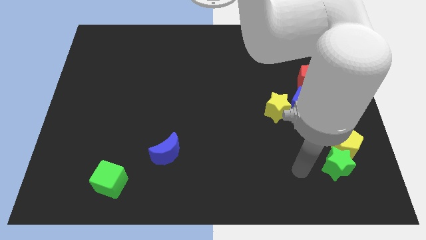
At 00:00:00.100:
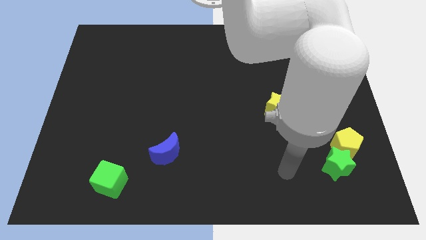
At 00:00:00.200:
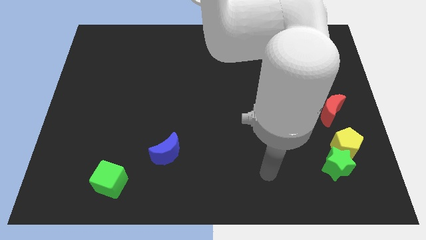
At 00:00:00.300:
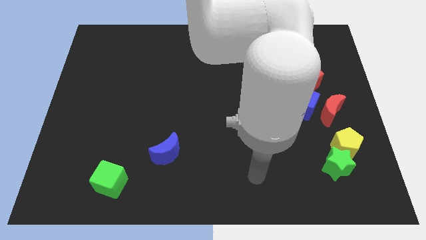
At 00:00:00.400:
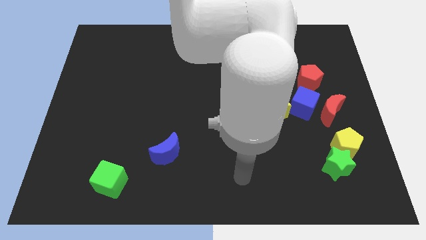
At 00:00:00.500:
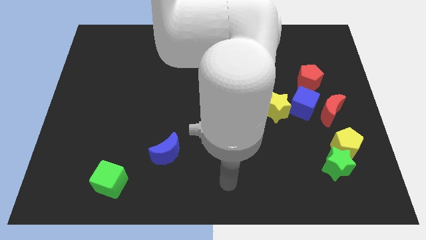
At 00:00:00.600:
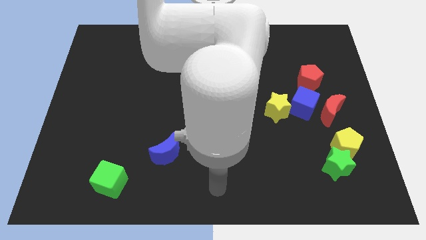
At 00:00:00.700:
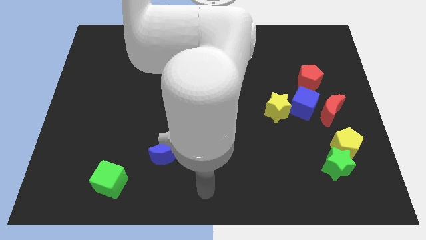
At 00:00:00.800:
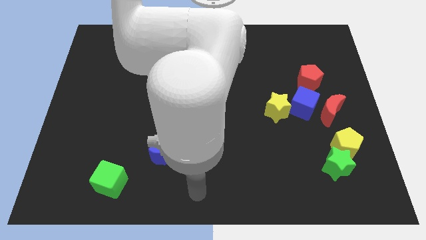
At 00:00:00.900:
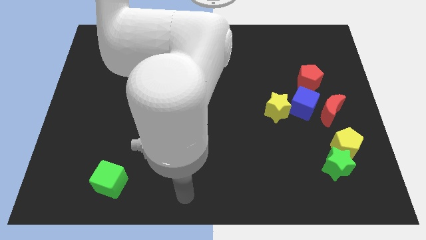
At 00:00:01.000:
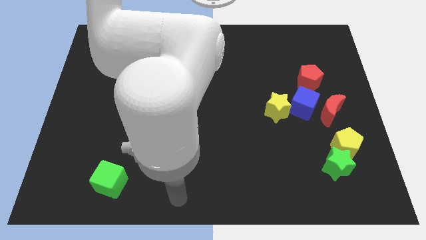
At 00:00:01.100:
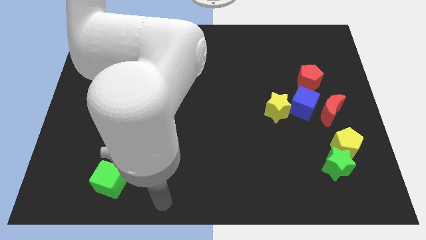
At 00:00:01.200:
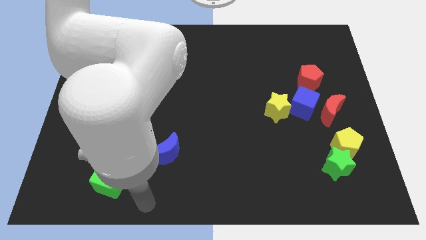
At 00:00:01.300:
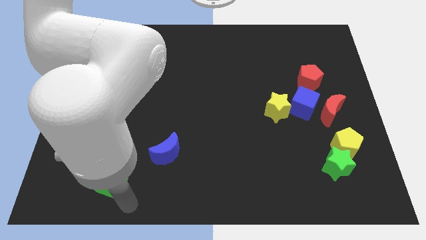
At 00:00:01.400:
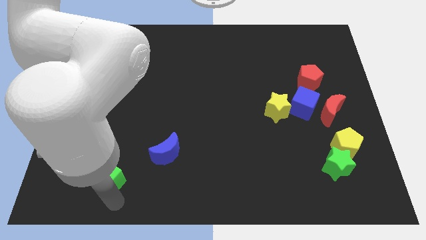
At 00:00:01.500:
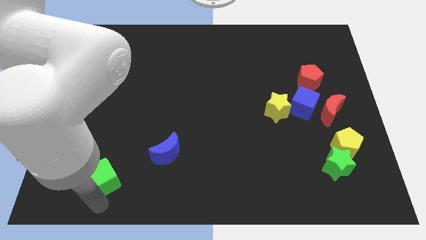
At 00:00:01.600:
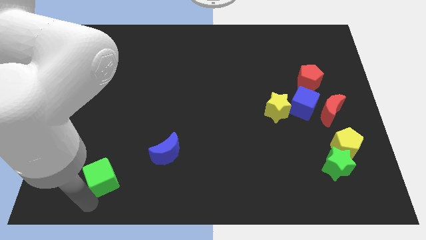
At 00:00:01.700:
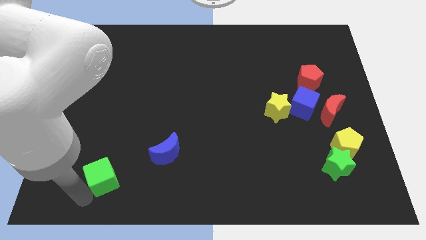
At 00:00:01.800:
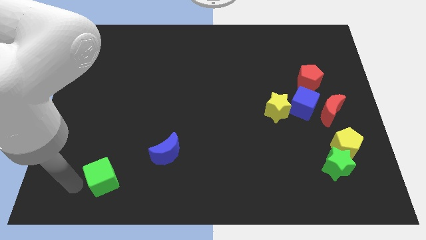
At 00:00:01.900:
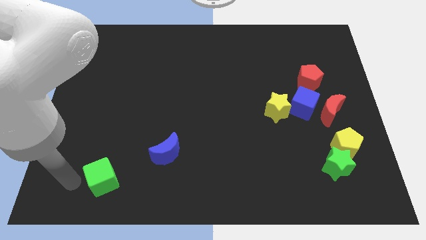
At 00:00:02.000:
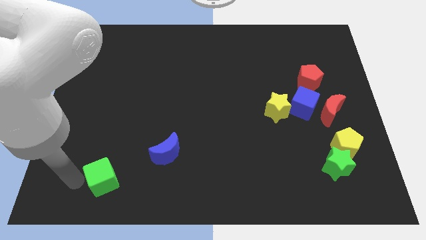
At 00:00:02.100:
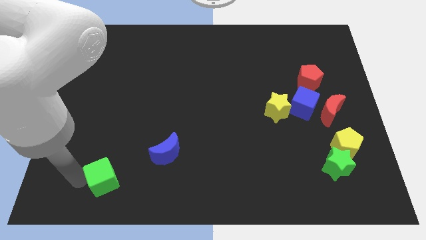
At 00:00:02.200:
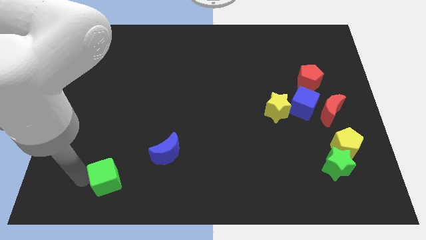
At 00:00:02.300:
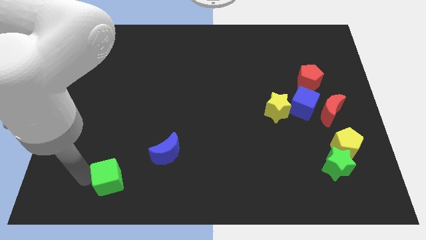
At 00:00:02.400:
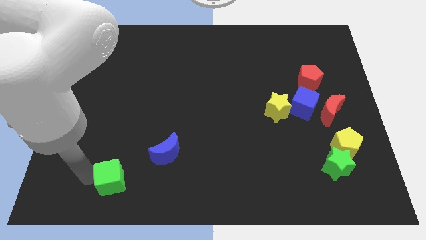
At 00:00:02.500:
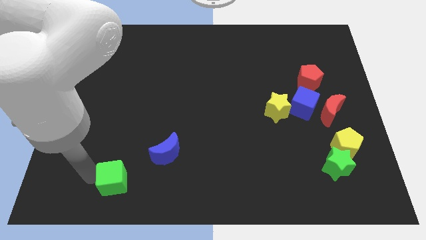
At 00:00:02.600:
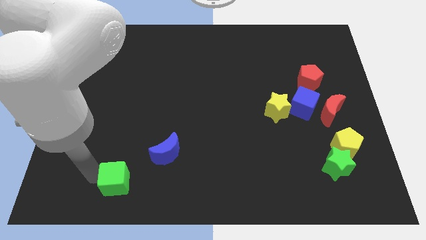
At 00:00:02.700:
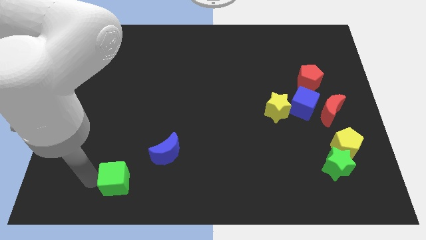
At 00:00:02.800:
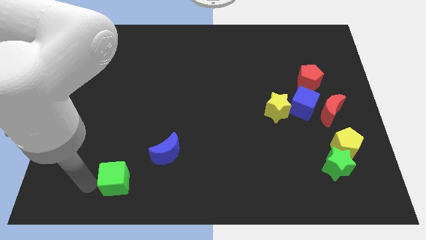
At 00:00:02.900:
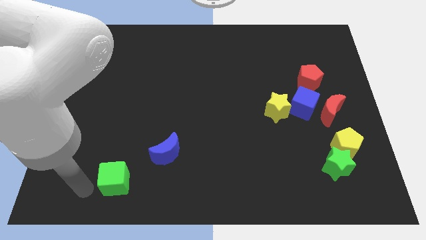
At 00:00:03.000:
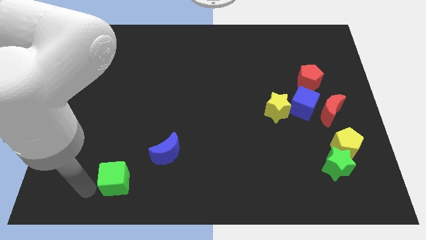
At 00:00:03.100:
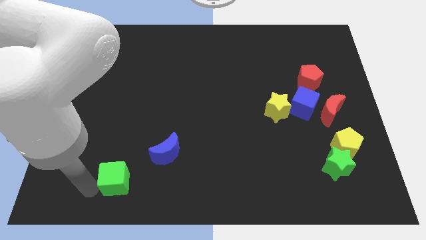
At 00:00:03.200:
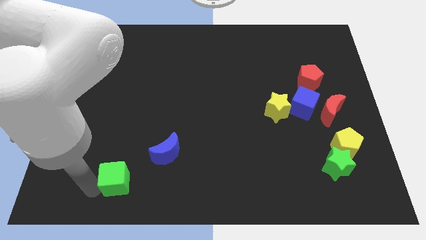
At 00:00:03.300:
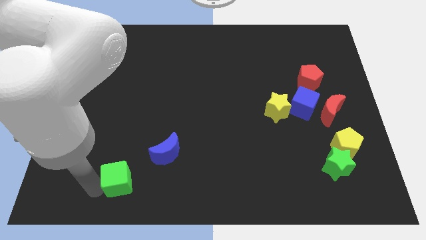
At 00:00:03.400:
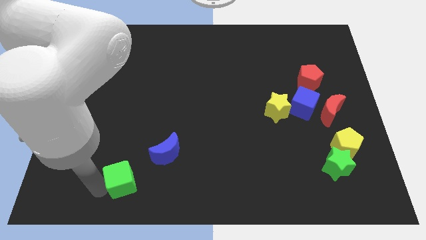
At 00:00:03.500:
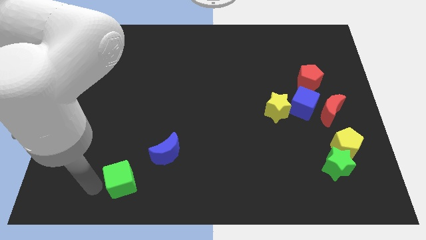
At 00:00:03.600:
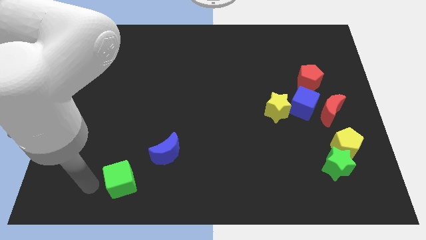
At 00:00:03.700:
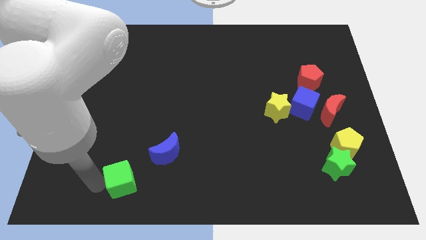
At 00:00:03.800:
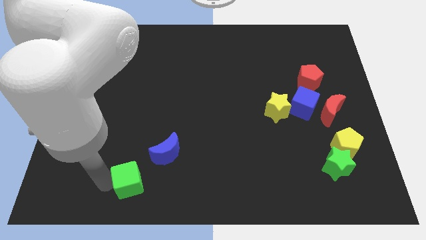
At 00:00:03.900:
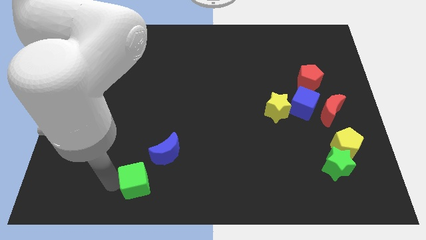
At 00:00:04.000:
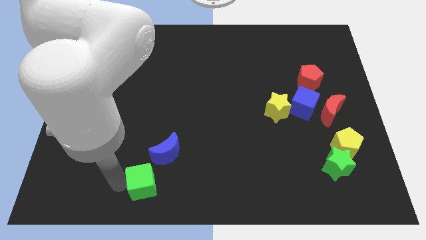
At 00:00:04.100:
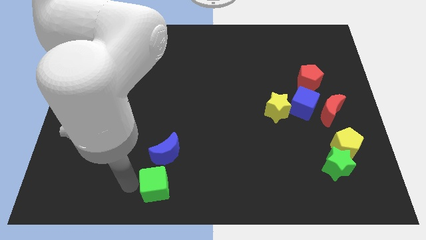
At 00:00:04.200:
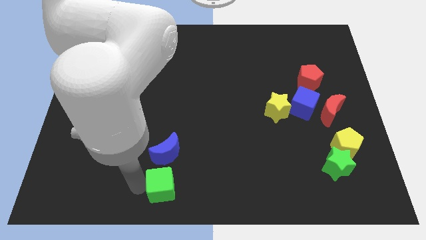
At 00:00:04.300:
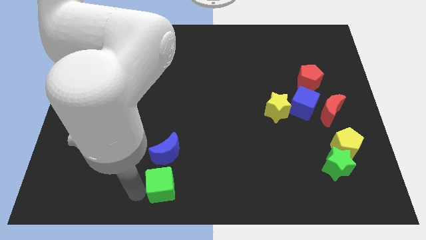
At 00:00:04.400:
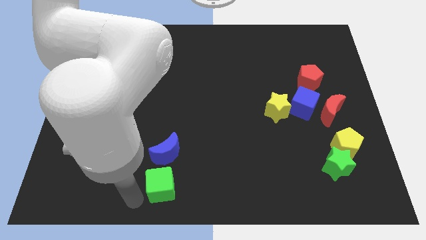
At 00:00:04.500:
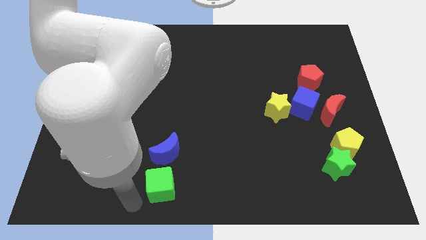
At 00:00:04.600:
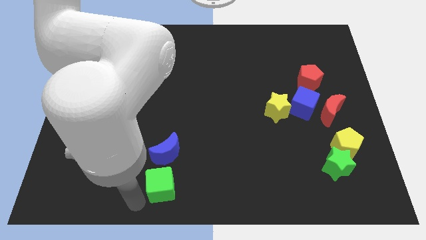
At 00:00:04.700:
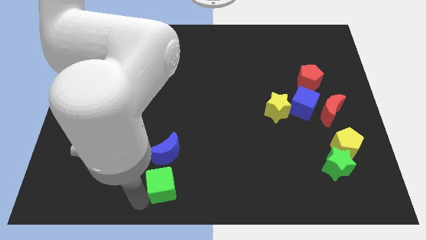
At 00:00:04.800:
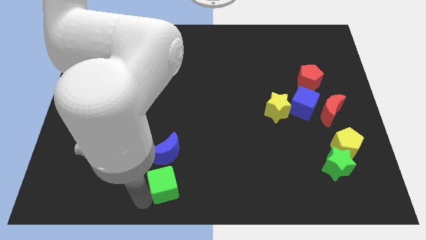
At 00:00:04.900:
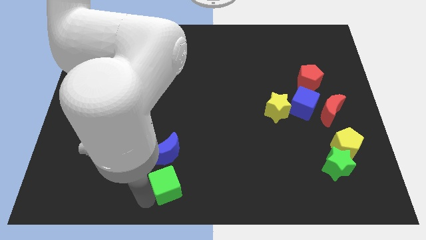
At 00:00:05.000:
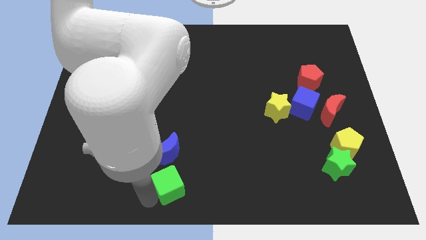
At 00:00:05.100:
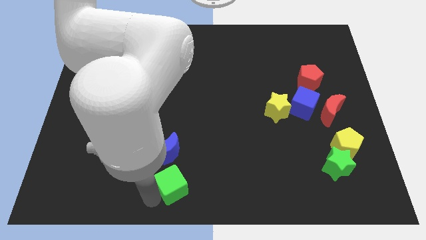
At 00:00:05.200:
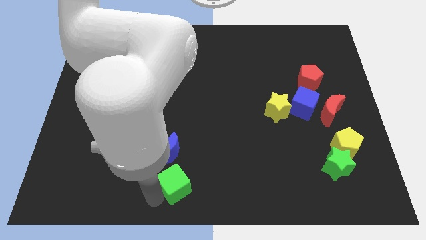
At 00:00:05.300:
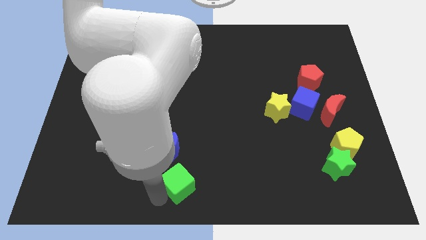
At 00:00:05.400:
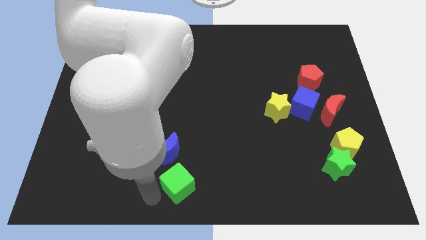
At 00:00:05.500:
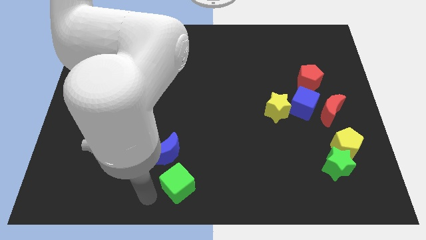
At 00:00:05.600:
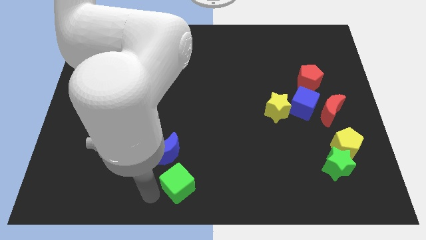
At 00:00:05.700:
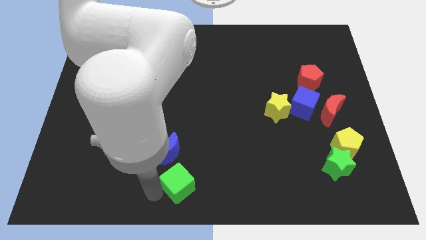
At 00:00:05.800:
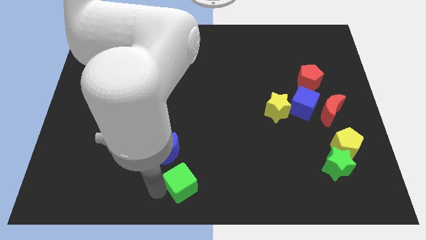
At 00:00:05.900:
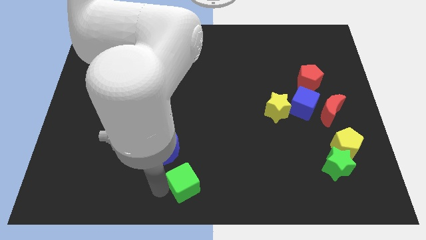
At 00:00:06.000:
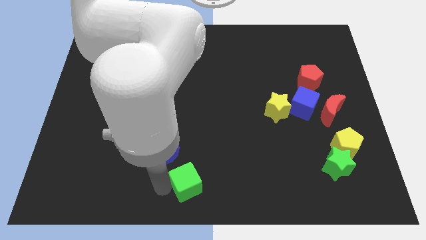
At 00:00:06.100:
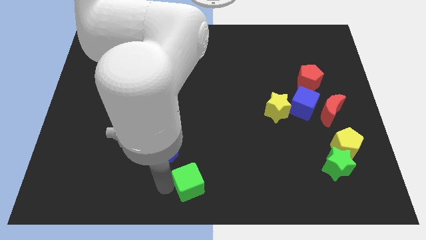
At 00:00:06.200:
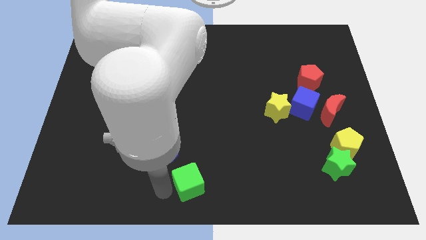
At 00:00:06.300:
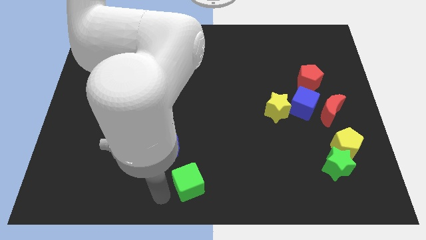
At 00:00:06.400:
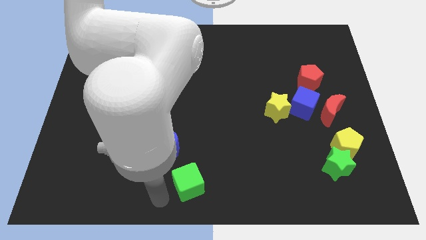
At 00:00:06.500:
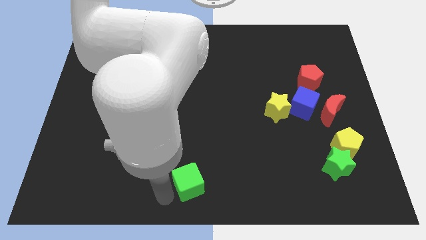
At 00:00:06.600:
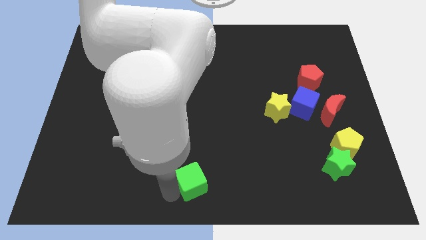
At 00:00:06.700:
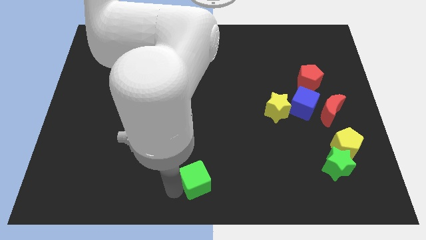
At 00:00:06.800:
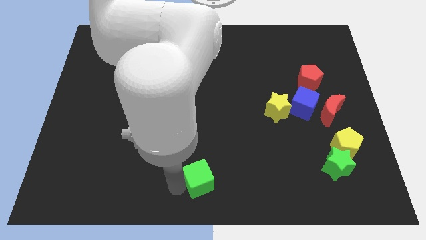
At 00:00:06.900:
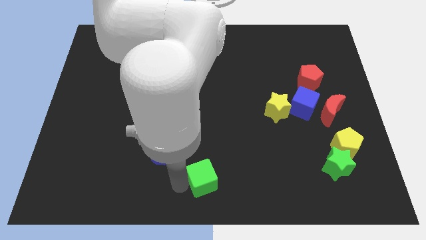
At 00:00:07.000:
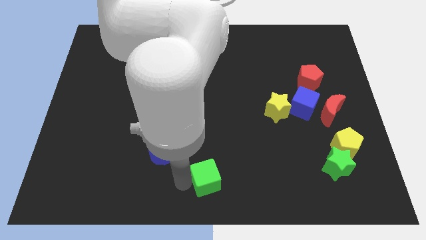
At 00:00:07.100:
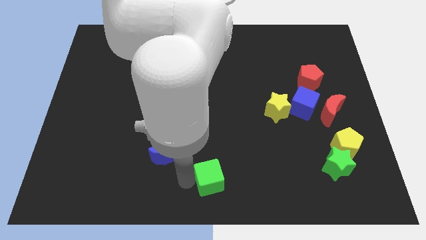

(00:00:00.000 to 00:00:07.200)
push the green cube to the right
